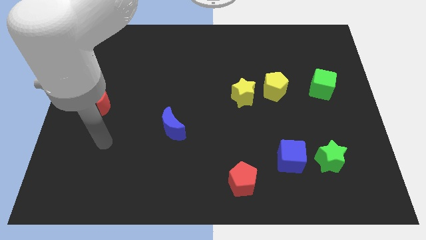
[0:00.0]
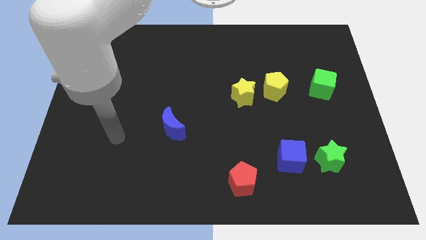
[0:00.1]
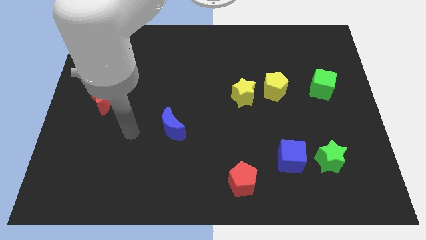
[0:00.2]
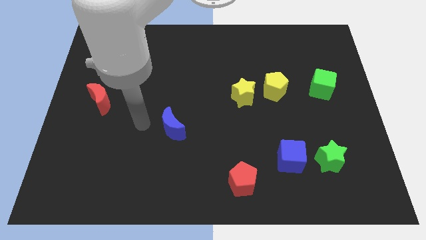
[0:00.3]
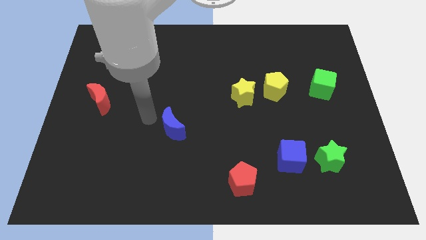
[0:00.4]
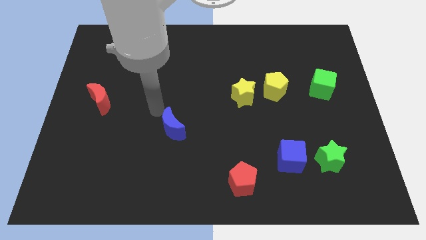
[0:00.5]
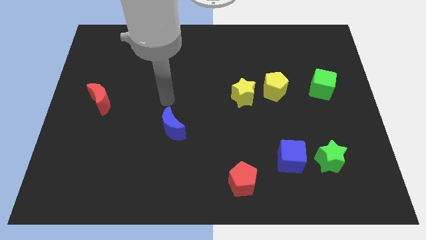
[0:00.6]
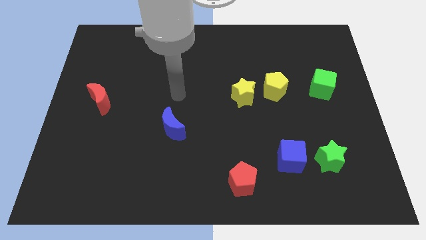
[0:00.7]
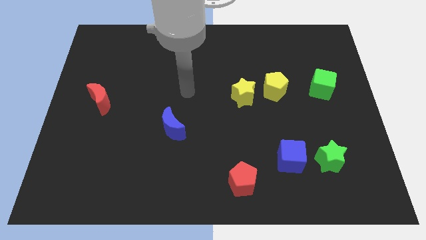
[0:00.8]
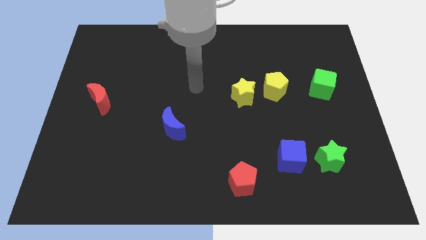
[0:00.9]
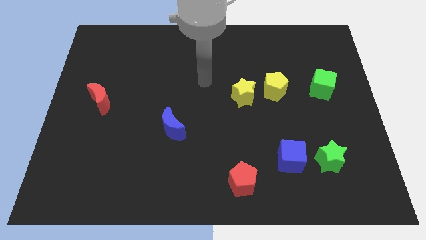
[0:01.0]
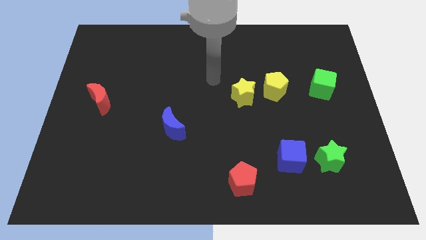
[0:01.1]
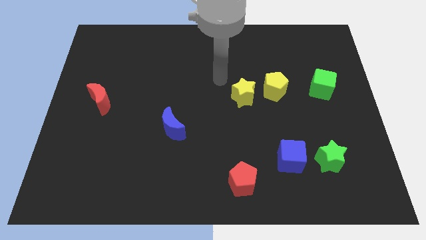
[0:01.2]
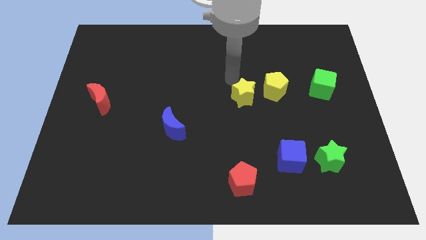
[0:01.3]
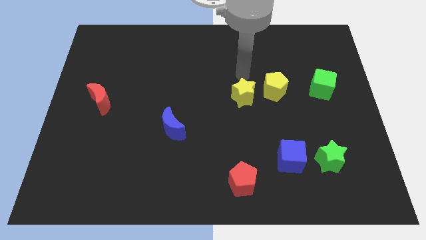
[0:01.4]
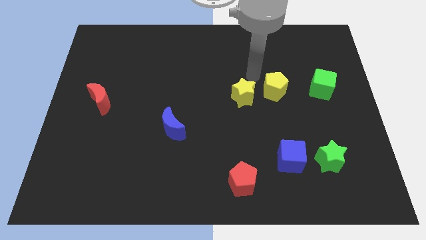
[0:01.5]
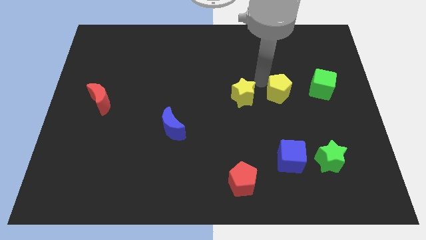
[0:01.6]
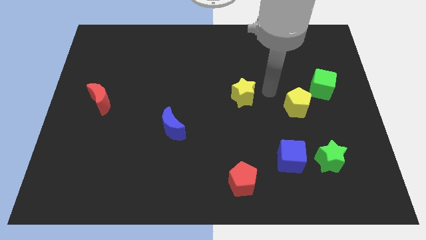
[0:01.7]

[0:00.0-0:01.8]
pull the yellow star apart from the yellow pentagon

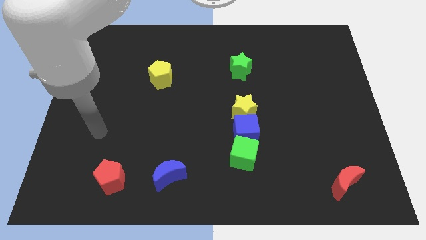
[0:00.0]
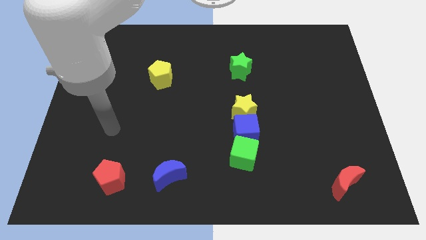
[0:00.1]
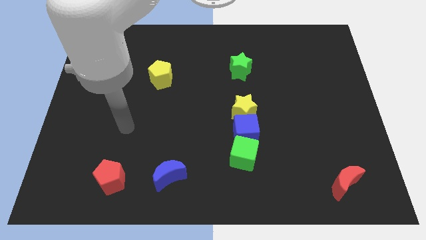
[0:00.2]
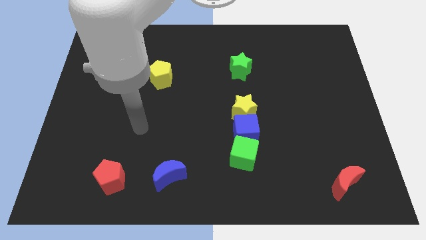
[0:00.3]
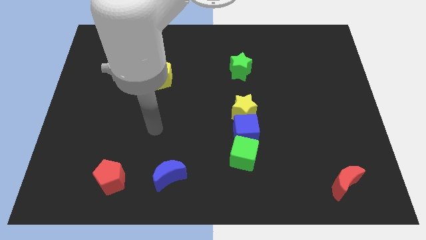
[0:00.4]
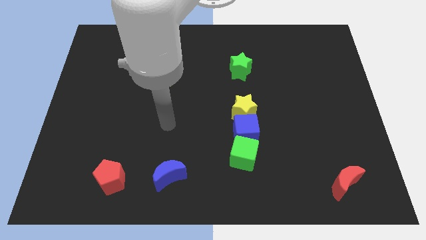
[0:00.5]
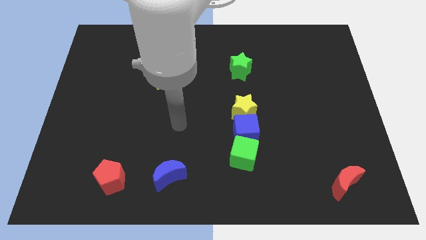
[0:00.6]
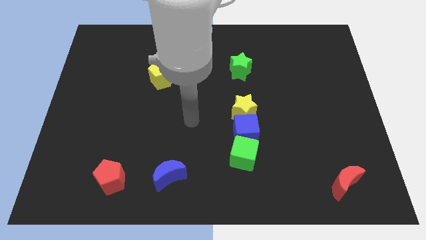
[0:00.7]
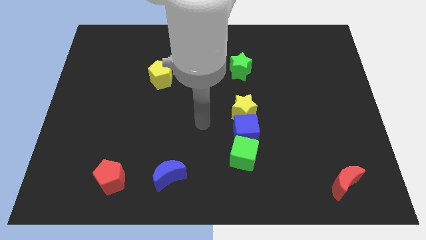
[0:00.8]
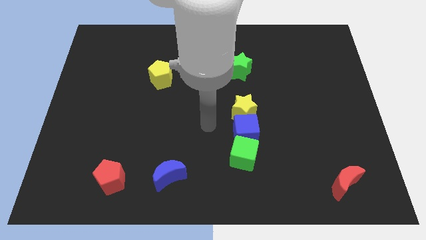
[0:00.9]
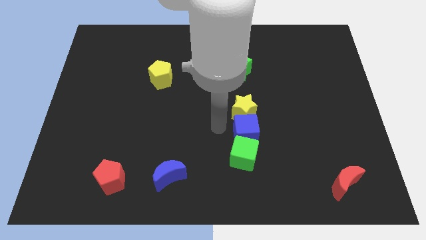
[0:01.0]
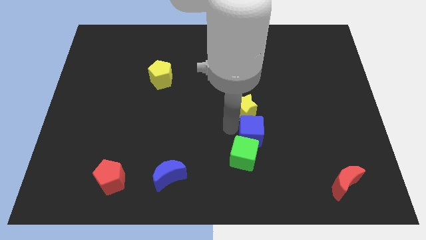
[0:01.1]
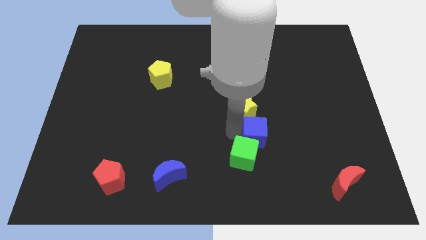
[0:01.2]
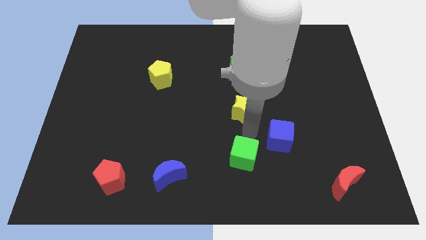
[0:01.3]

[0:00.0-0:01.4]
pull the yellow star apart from the blue cube

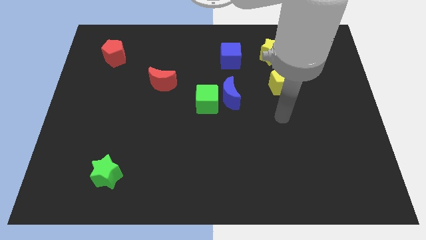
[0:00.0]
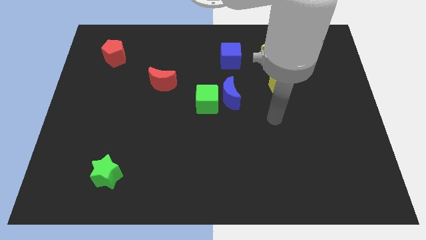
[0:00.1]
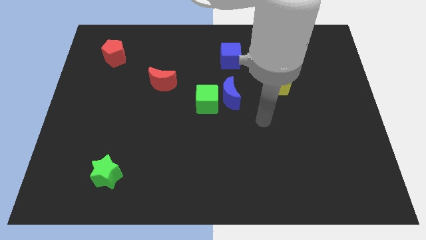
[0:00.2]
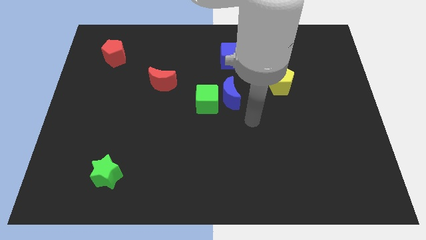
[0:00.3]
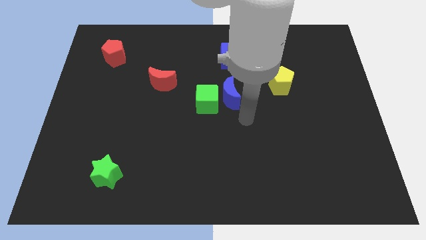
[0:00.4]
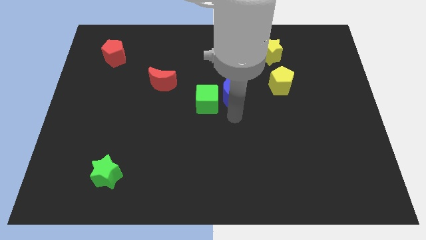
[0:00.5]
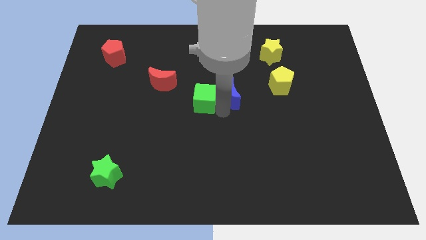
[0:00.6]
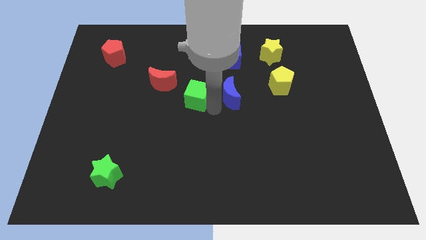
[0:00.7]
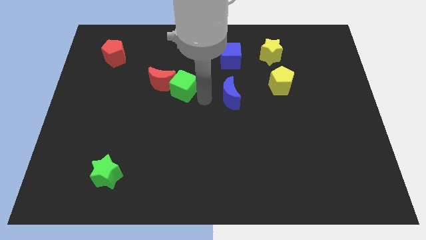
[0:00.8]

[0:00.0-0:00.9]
move the blue moon away from the green cube

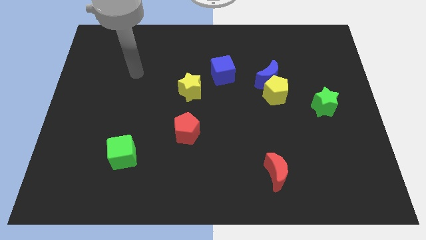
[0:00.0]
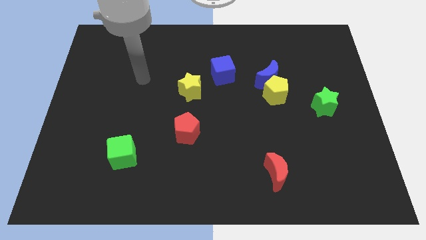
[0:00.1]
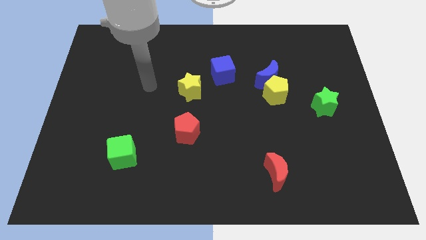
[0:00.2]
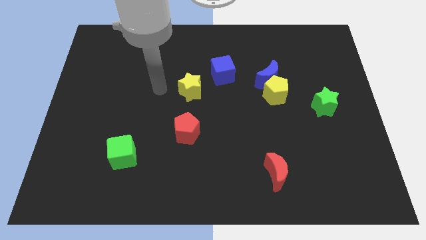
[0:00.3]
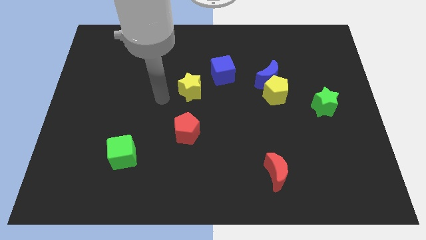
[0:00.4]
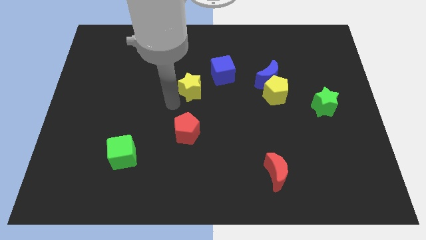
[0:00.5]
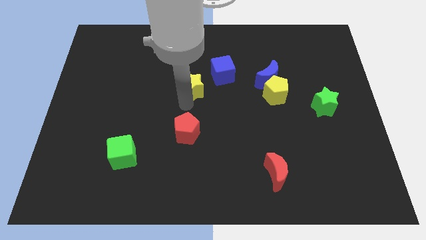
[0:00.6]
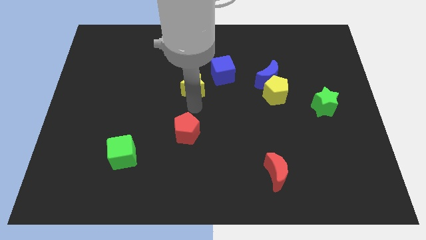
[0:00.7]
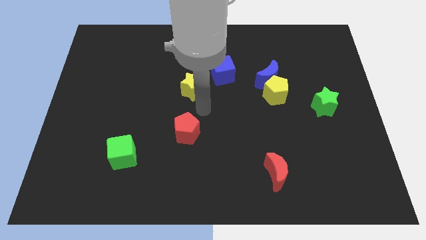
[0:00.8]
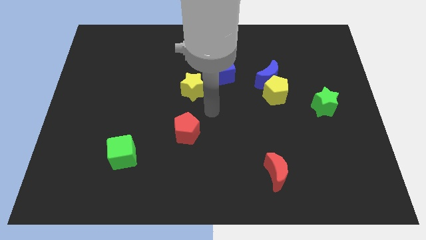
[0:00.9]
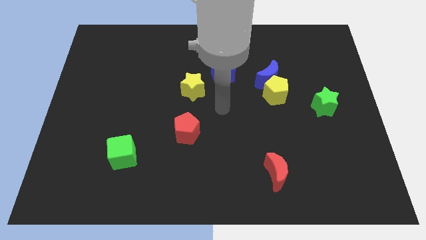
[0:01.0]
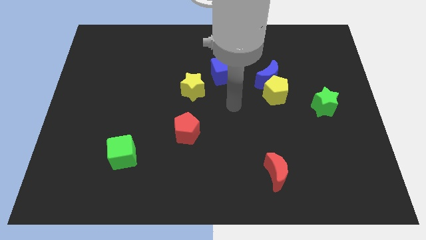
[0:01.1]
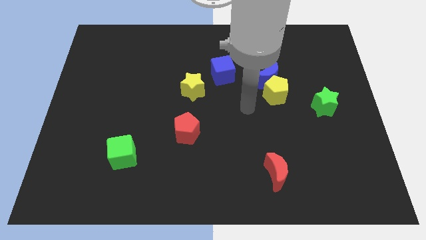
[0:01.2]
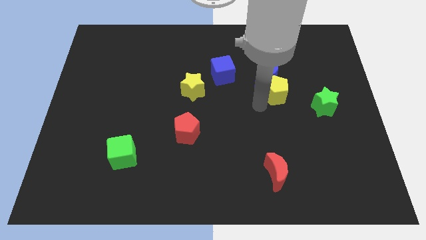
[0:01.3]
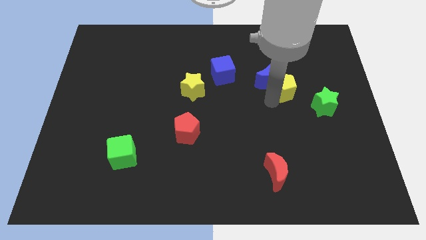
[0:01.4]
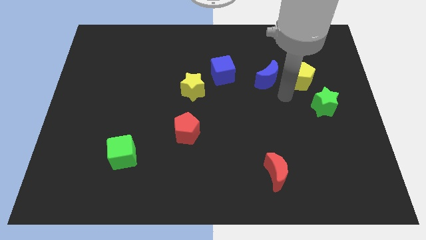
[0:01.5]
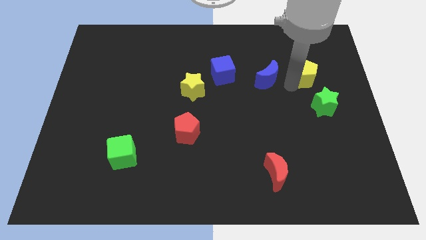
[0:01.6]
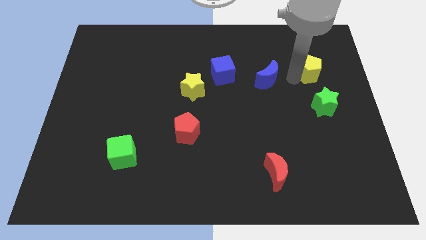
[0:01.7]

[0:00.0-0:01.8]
move the blue moon away from the yellow pentagon

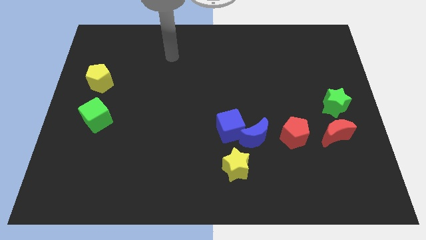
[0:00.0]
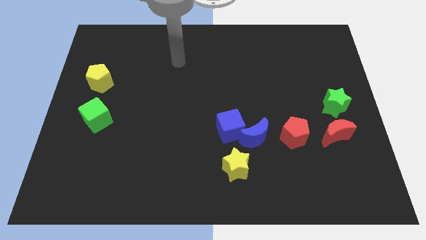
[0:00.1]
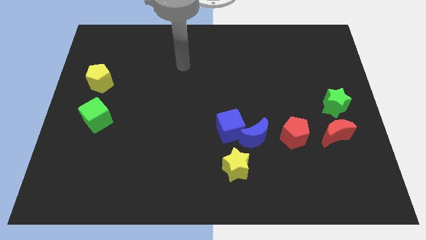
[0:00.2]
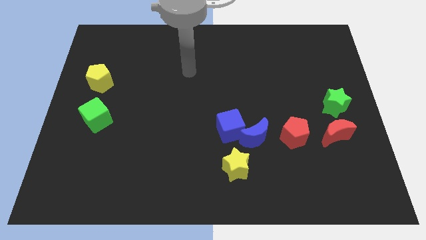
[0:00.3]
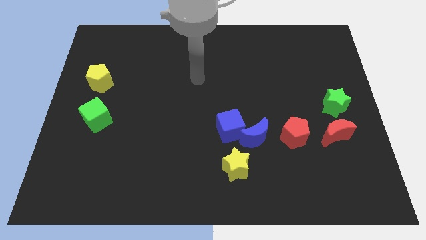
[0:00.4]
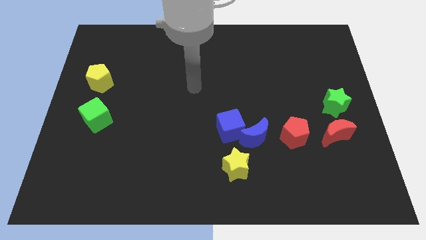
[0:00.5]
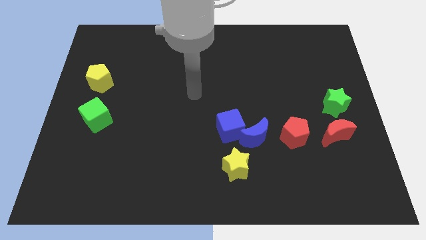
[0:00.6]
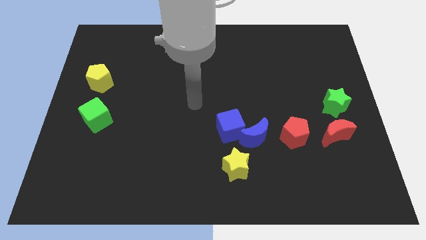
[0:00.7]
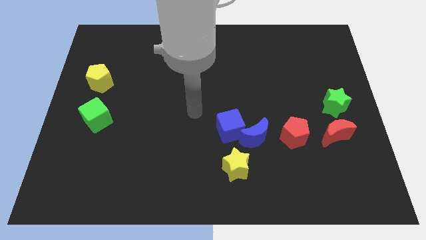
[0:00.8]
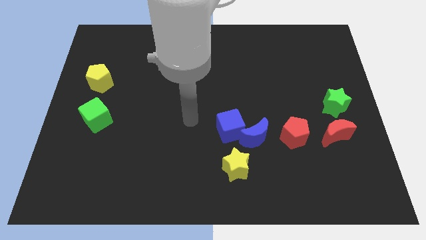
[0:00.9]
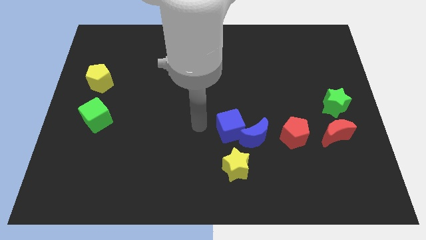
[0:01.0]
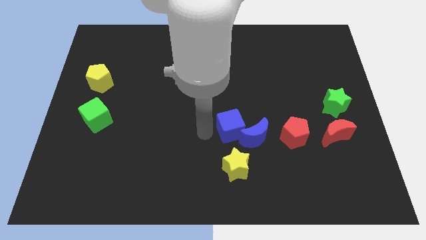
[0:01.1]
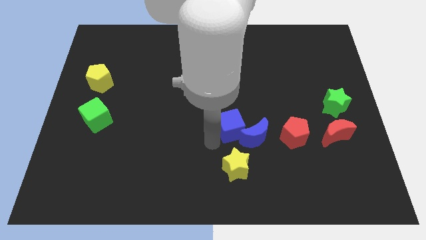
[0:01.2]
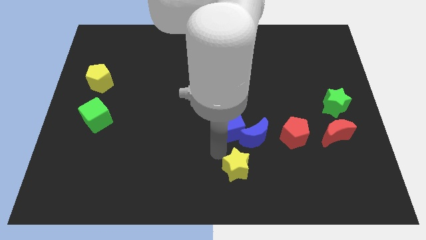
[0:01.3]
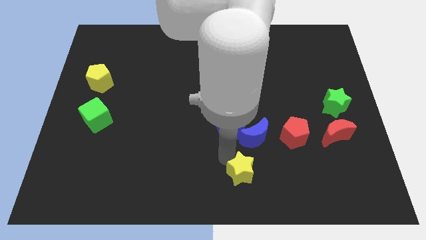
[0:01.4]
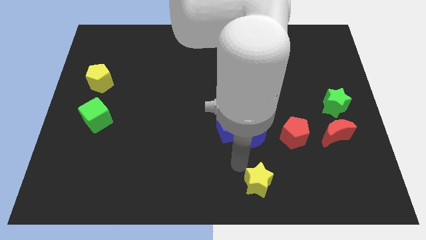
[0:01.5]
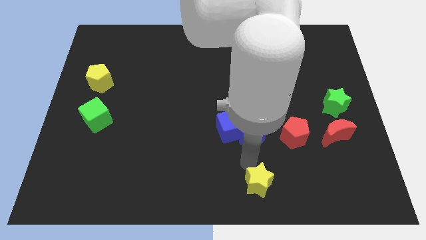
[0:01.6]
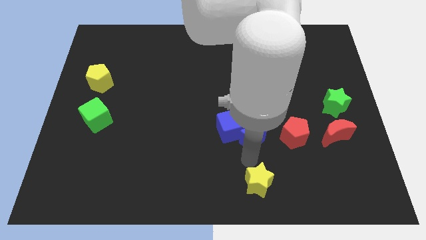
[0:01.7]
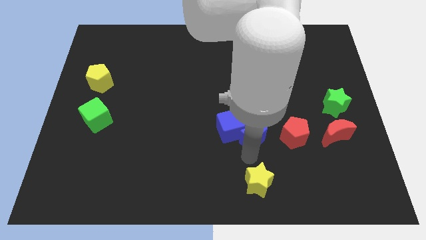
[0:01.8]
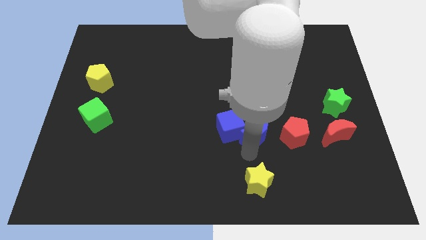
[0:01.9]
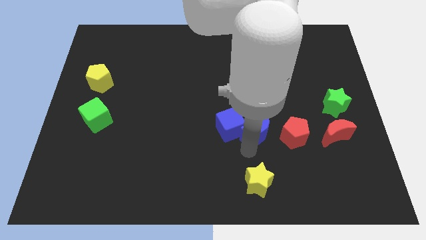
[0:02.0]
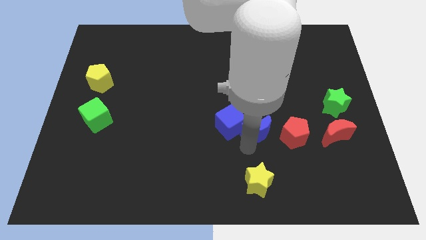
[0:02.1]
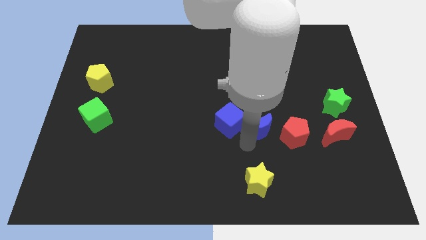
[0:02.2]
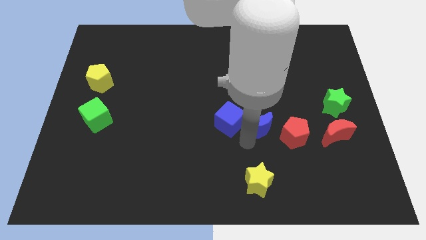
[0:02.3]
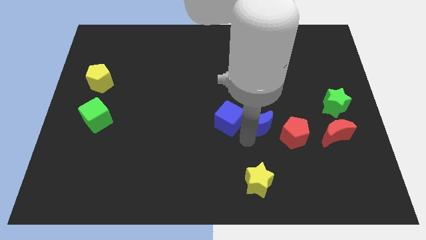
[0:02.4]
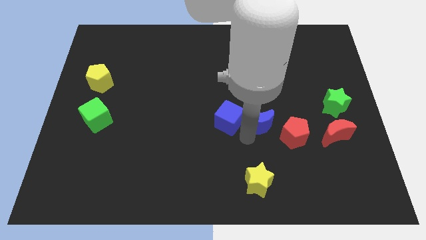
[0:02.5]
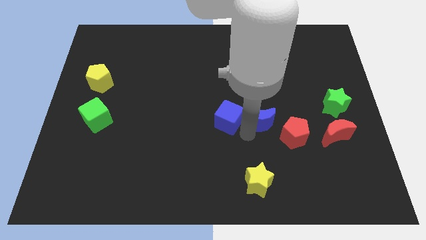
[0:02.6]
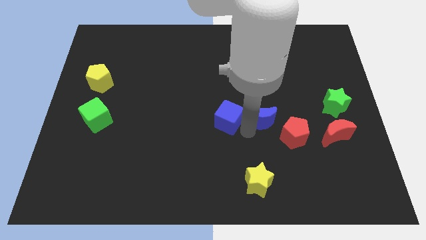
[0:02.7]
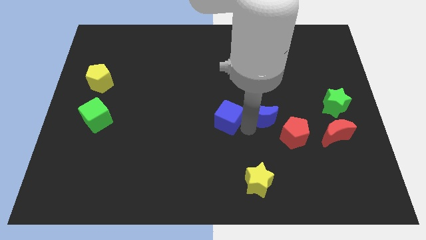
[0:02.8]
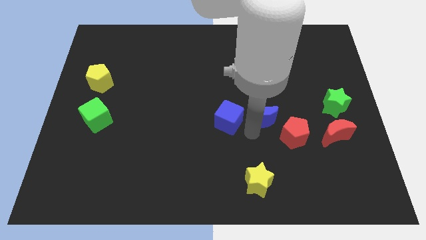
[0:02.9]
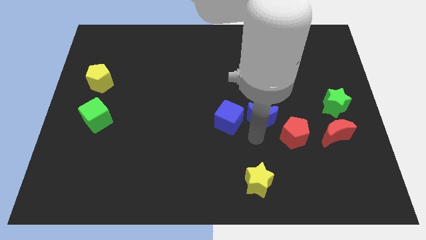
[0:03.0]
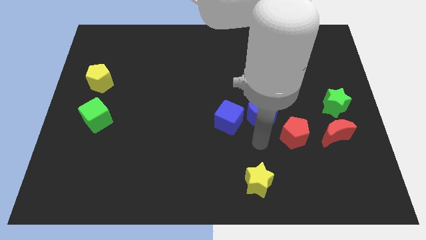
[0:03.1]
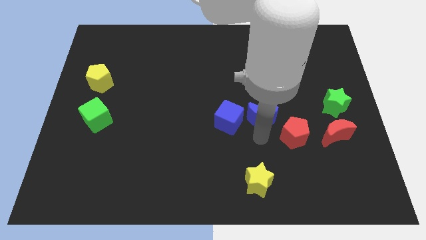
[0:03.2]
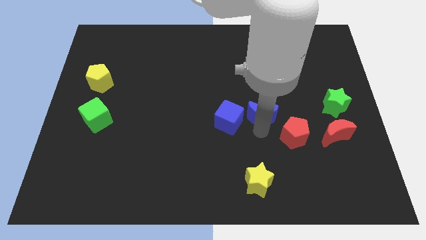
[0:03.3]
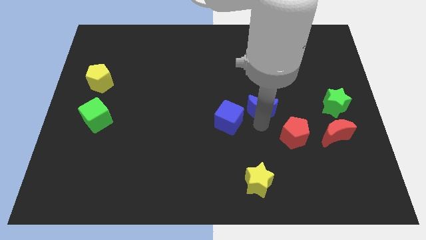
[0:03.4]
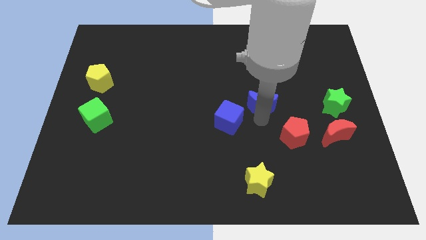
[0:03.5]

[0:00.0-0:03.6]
pull the blue moon apart from the clump
